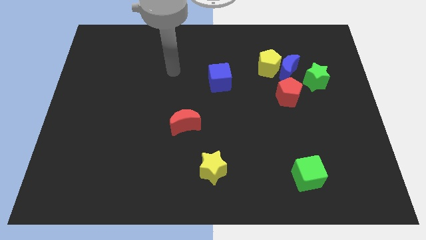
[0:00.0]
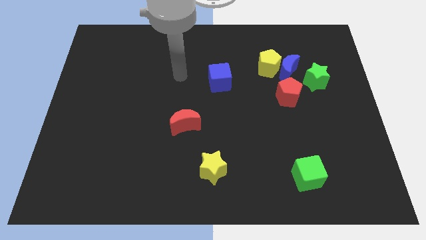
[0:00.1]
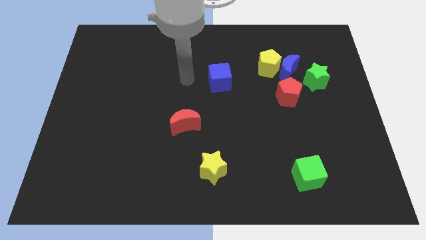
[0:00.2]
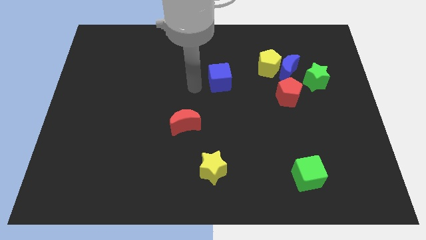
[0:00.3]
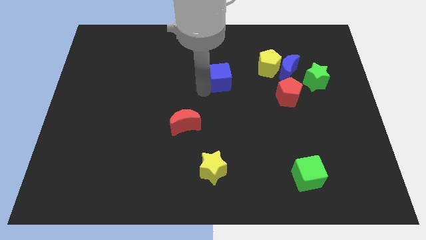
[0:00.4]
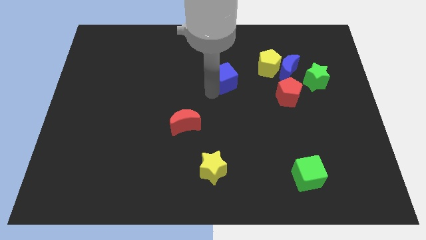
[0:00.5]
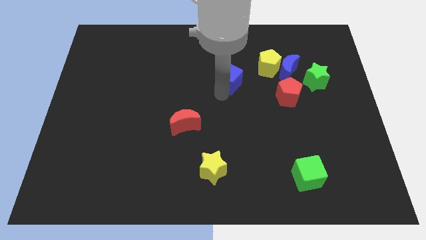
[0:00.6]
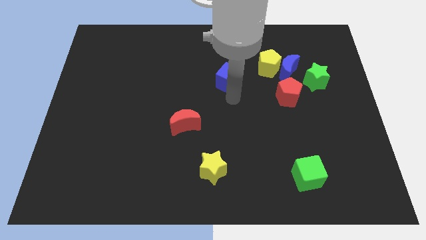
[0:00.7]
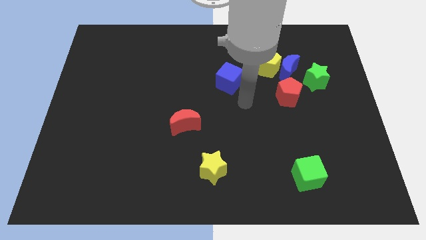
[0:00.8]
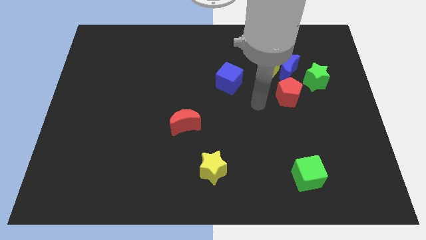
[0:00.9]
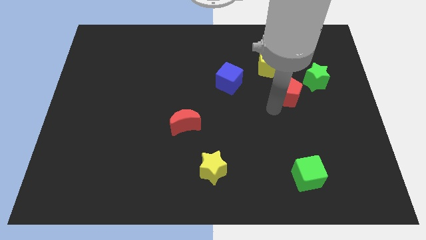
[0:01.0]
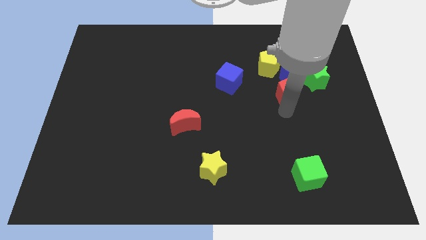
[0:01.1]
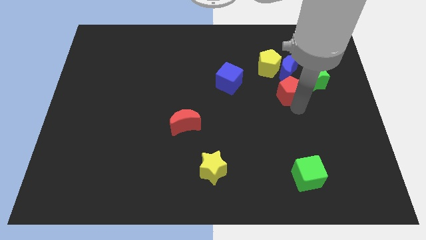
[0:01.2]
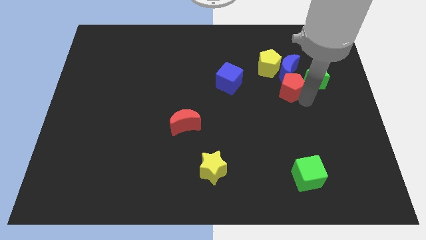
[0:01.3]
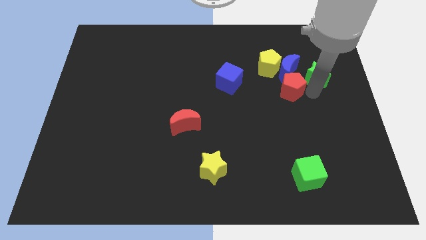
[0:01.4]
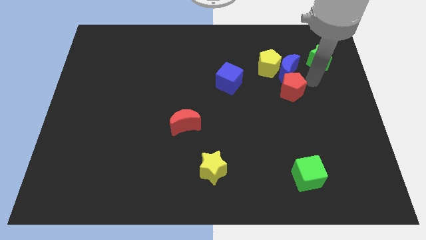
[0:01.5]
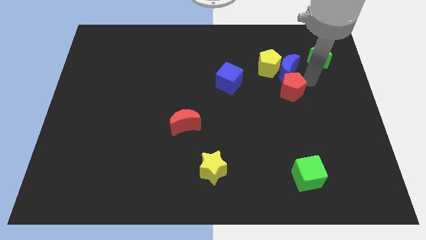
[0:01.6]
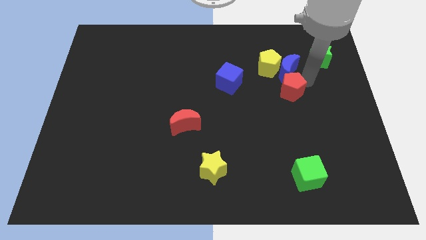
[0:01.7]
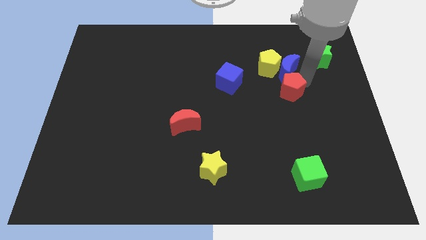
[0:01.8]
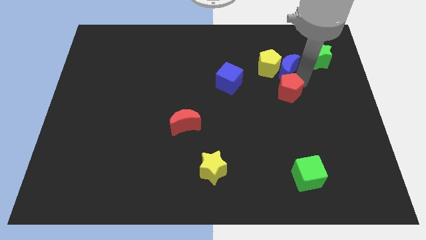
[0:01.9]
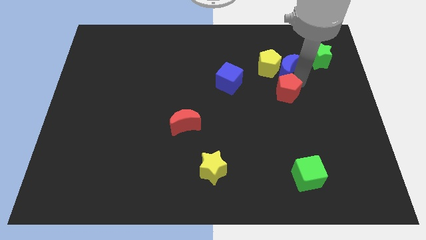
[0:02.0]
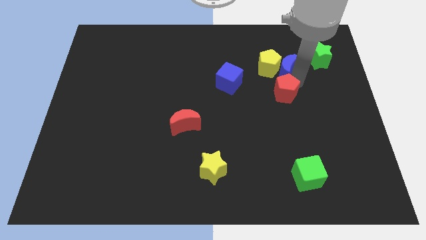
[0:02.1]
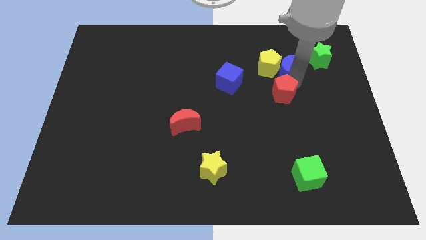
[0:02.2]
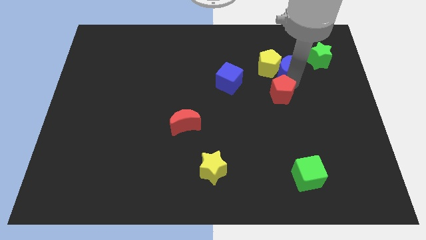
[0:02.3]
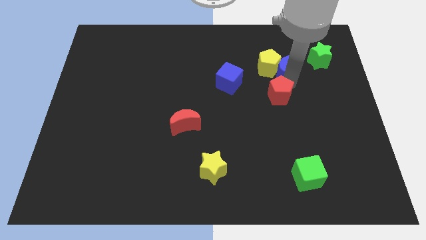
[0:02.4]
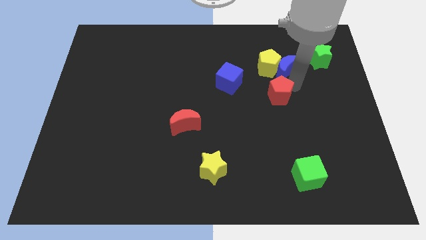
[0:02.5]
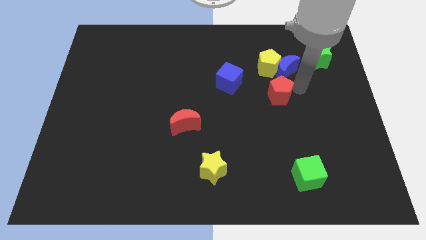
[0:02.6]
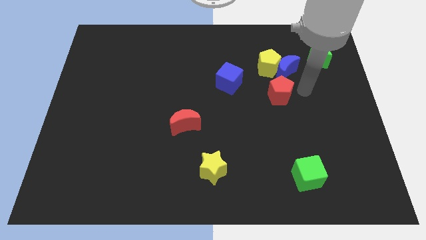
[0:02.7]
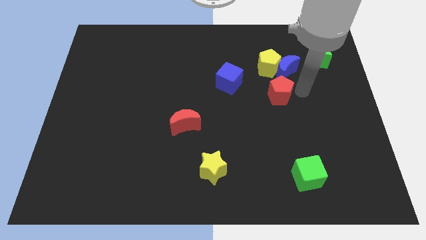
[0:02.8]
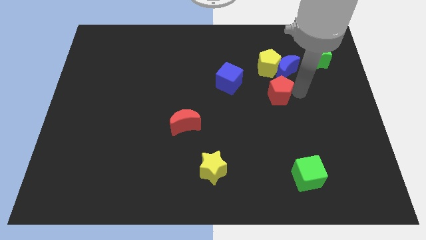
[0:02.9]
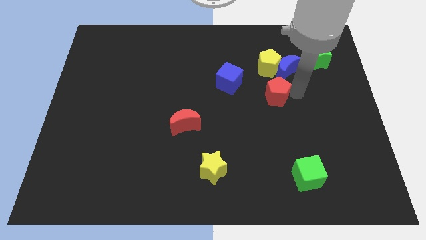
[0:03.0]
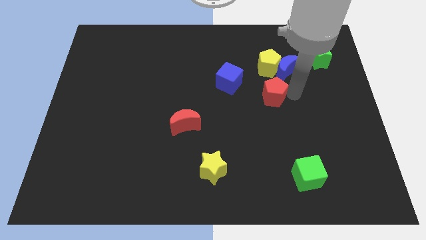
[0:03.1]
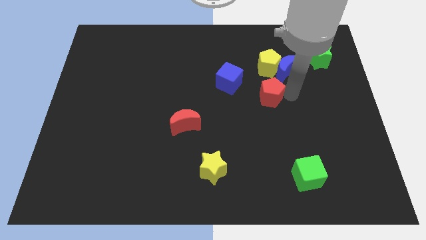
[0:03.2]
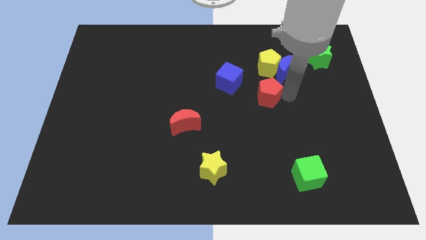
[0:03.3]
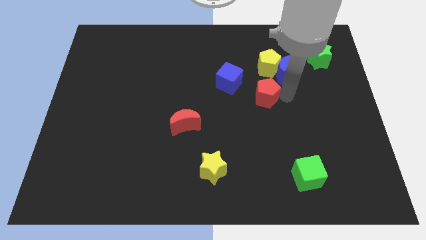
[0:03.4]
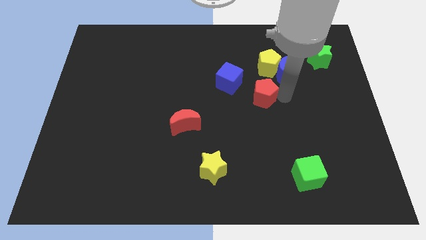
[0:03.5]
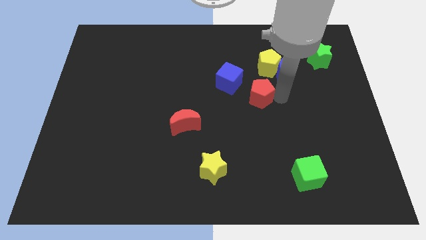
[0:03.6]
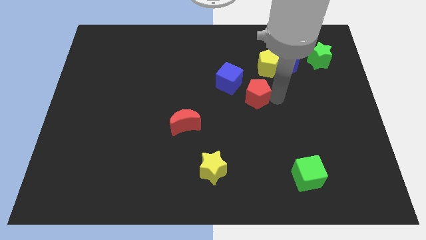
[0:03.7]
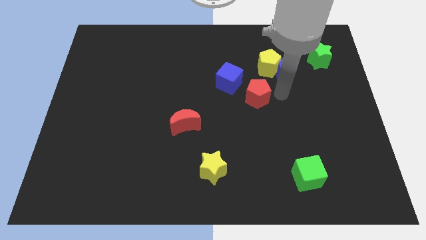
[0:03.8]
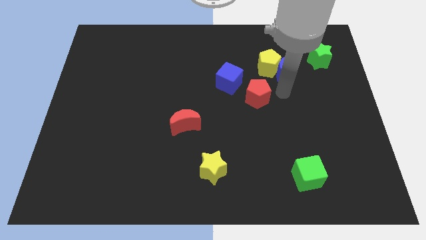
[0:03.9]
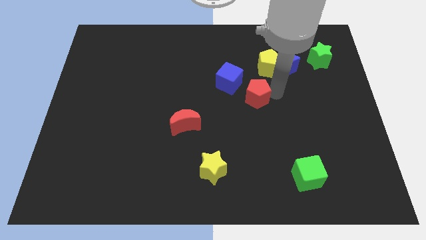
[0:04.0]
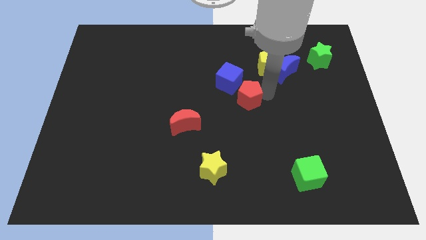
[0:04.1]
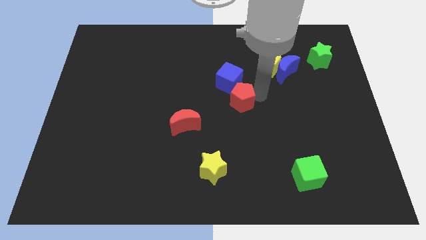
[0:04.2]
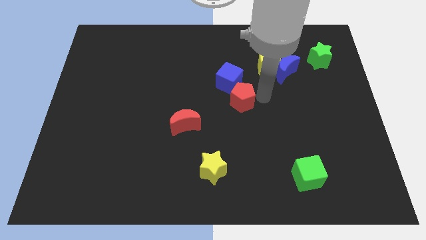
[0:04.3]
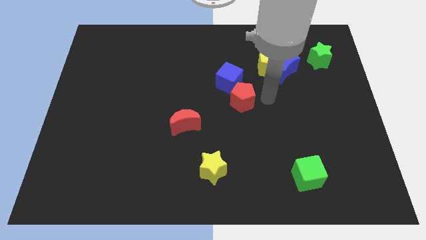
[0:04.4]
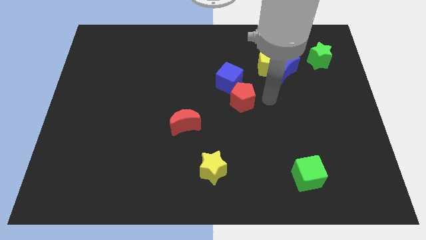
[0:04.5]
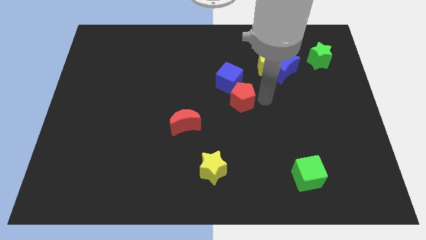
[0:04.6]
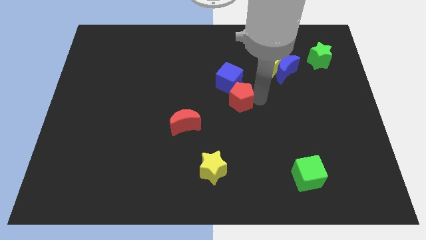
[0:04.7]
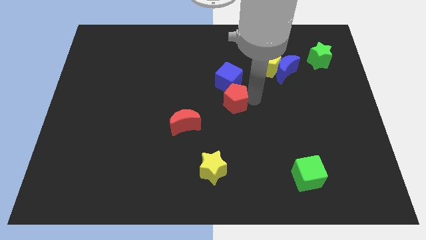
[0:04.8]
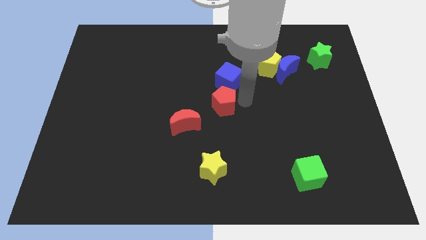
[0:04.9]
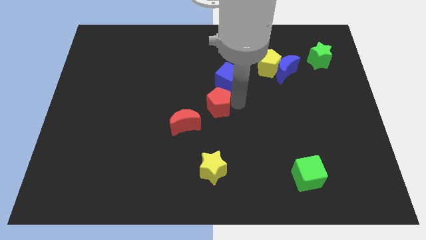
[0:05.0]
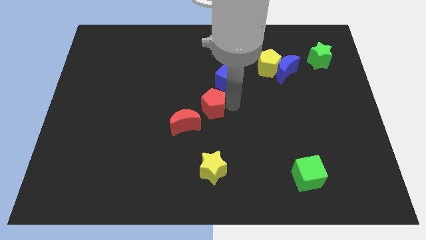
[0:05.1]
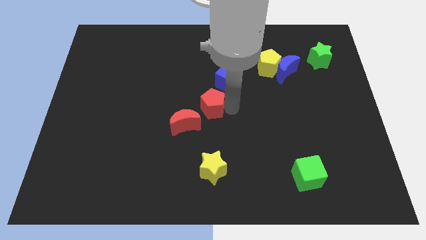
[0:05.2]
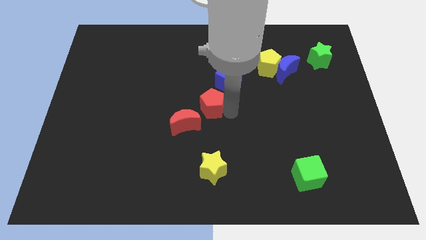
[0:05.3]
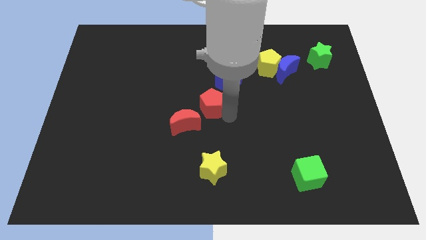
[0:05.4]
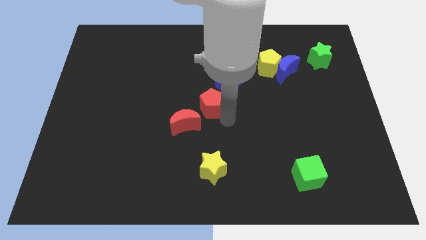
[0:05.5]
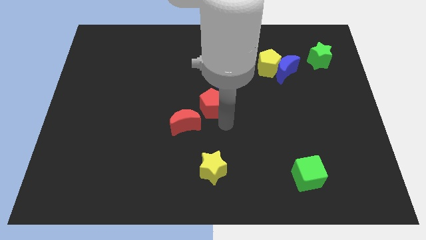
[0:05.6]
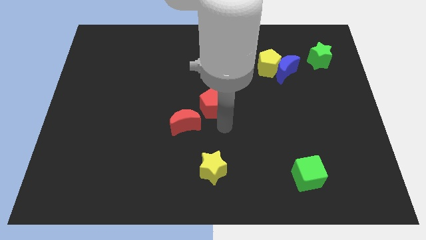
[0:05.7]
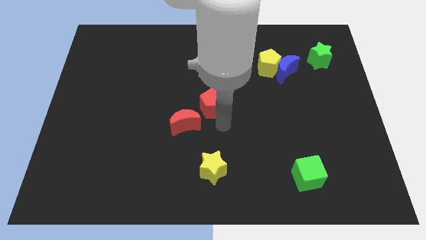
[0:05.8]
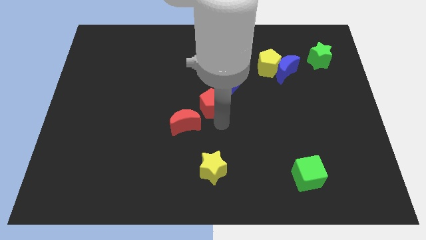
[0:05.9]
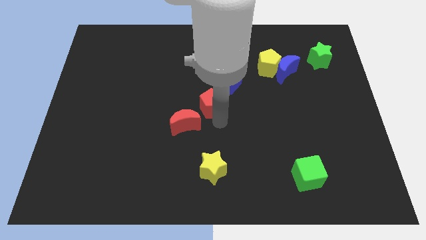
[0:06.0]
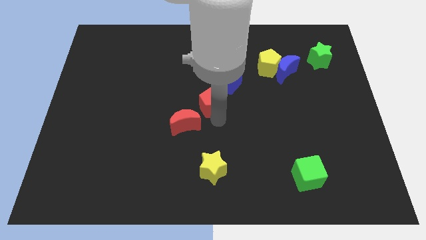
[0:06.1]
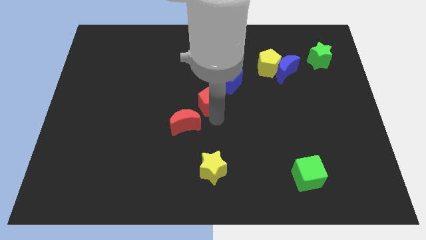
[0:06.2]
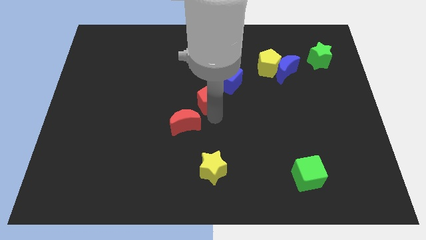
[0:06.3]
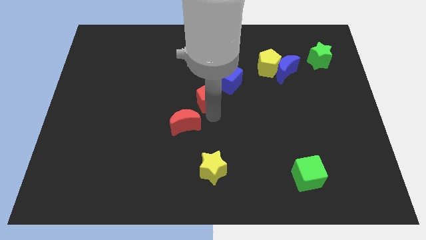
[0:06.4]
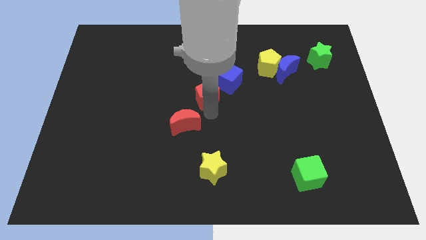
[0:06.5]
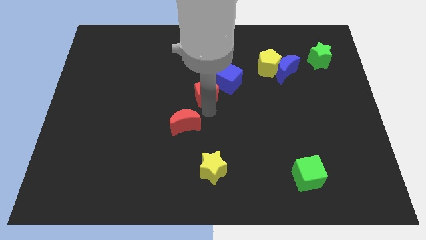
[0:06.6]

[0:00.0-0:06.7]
put the red pentagon left of the blue cube

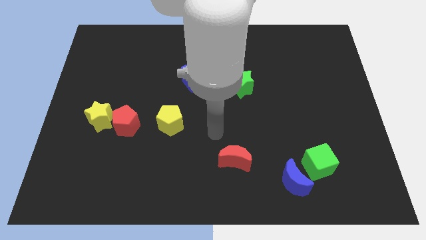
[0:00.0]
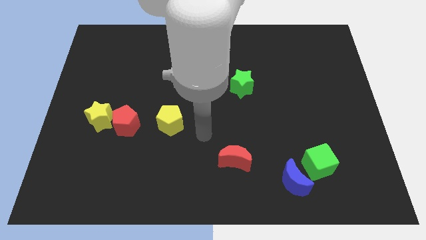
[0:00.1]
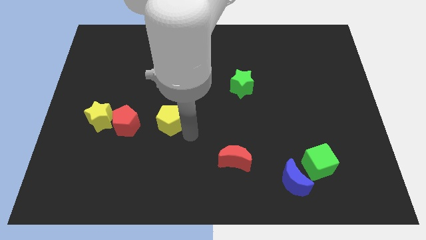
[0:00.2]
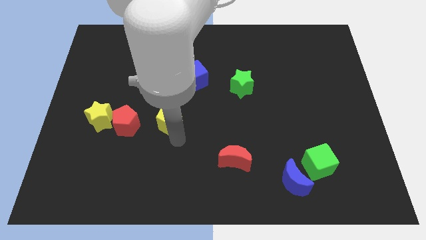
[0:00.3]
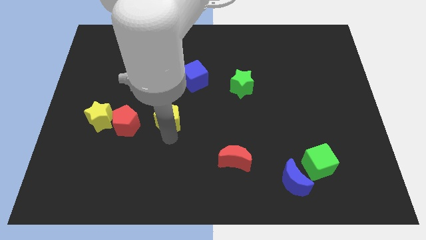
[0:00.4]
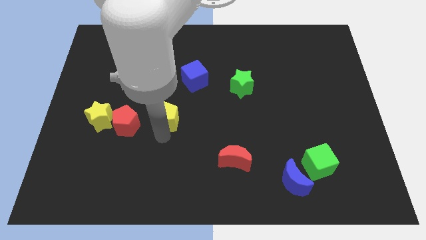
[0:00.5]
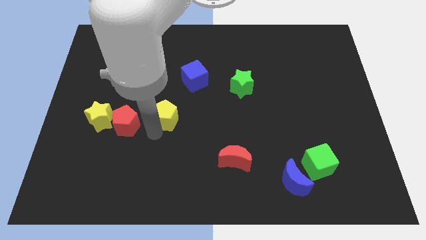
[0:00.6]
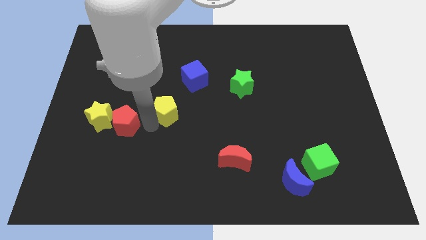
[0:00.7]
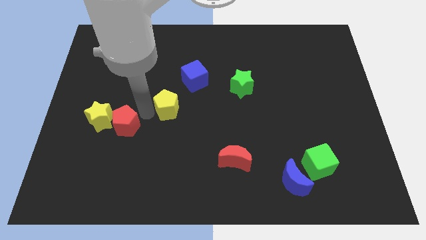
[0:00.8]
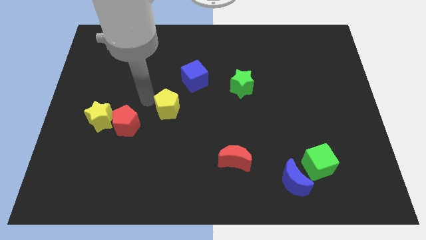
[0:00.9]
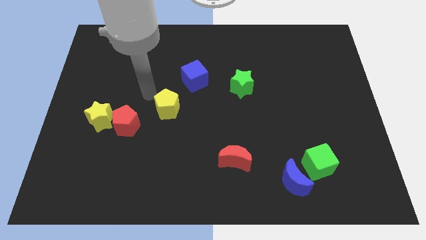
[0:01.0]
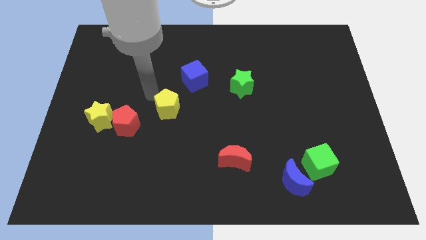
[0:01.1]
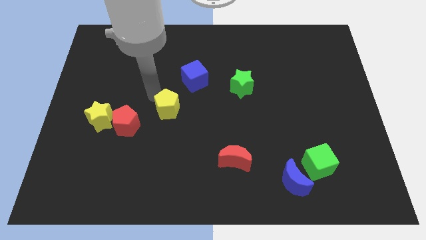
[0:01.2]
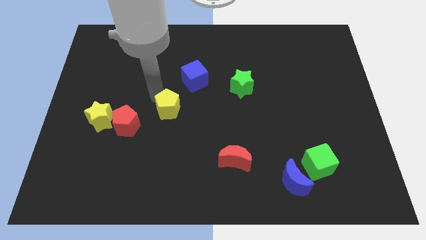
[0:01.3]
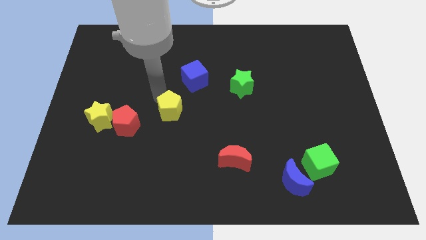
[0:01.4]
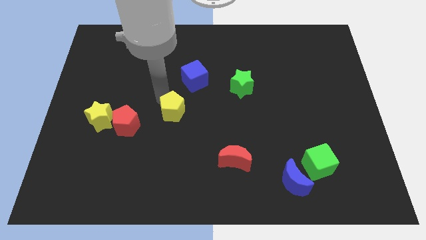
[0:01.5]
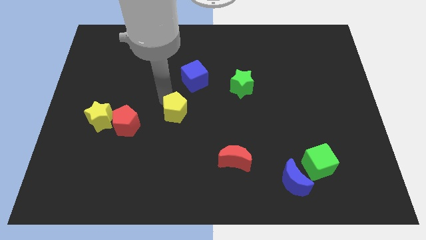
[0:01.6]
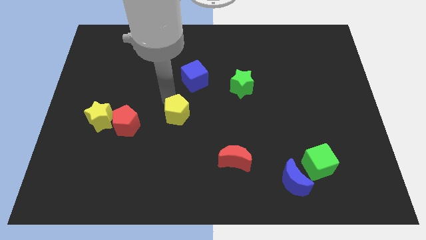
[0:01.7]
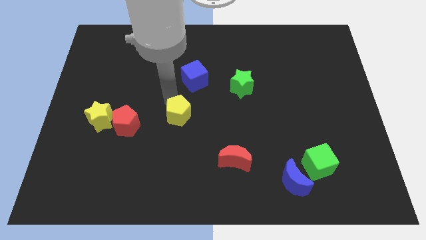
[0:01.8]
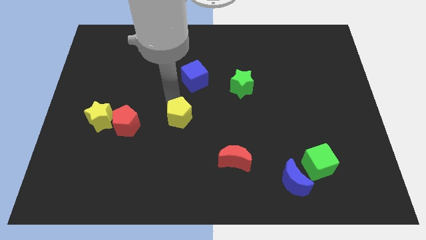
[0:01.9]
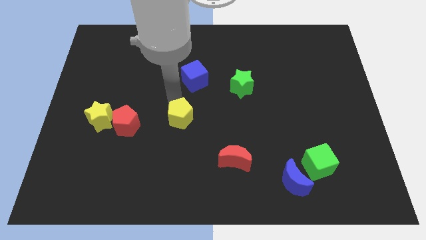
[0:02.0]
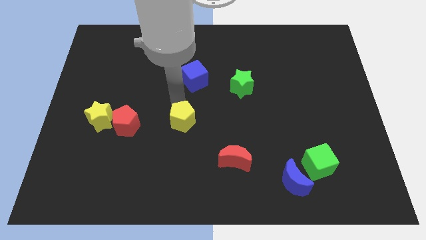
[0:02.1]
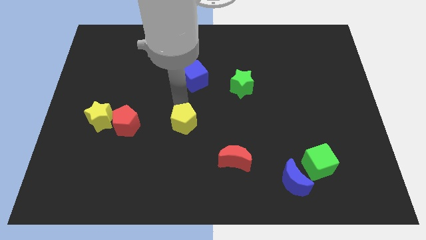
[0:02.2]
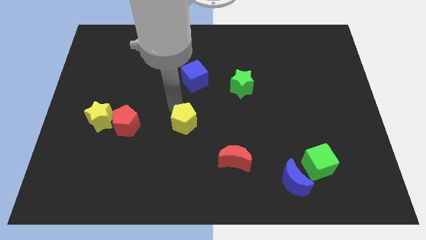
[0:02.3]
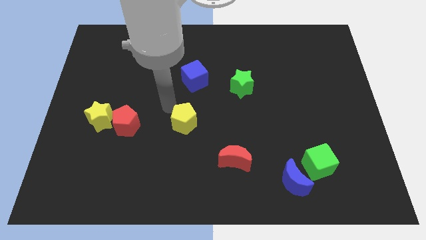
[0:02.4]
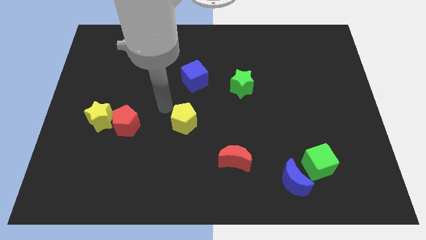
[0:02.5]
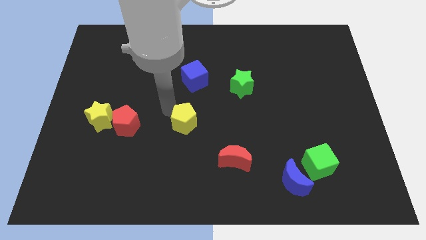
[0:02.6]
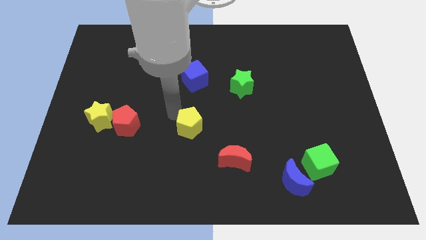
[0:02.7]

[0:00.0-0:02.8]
slide the yellow pentagon to the top left side of the red moon
